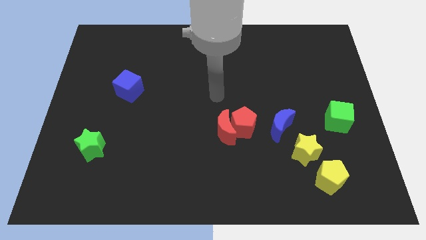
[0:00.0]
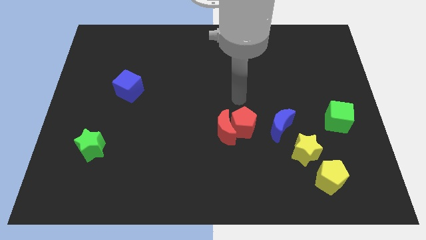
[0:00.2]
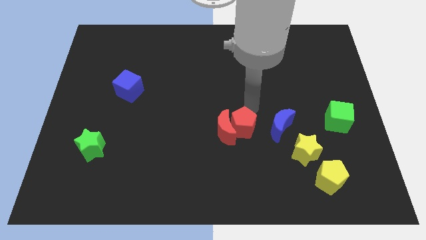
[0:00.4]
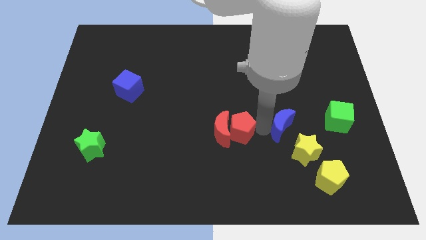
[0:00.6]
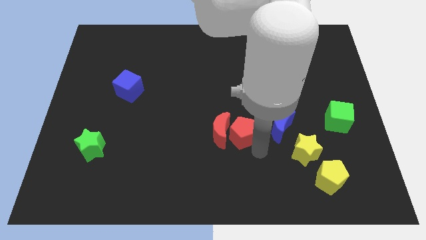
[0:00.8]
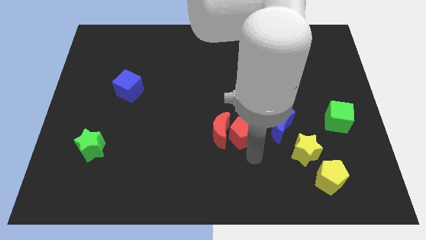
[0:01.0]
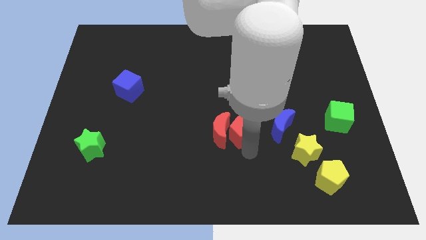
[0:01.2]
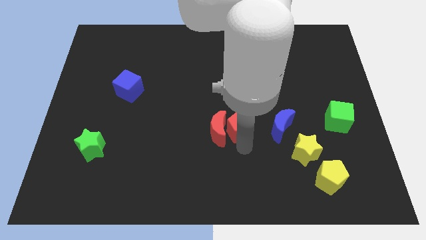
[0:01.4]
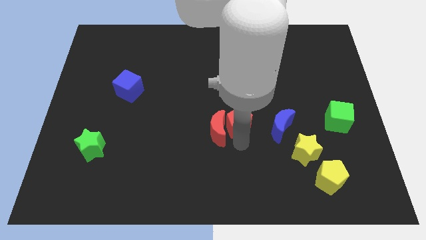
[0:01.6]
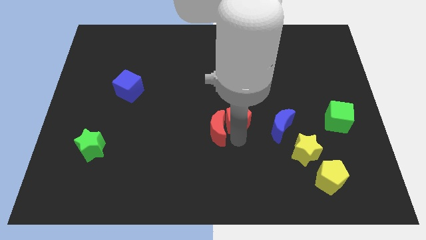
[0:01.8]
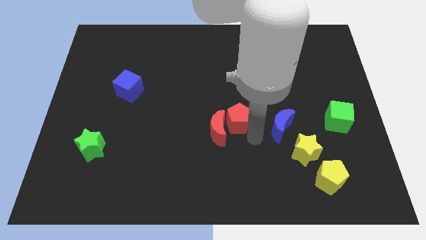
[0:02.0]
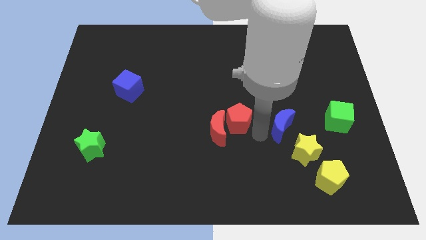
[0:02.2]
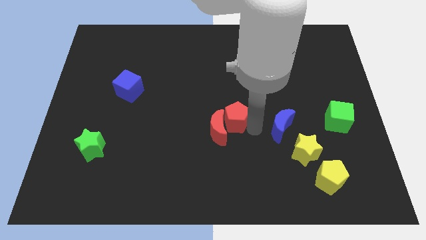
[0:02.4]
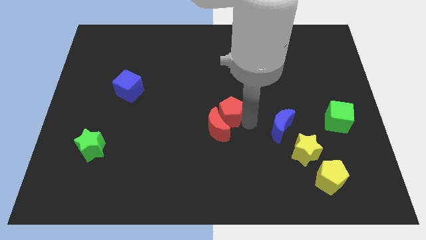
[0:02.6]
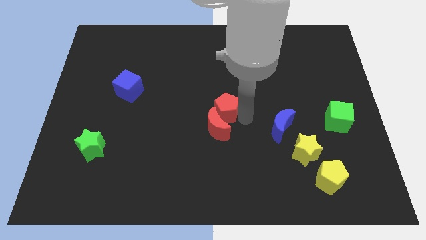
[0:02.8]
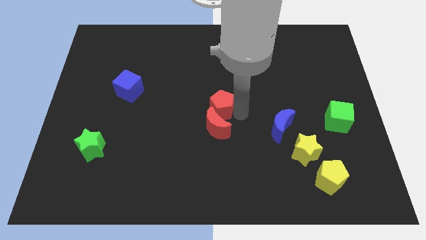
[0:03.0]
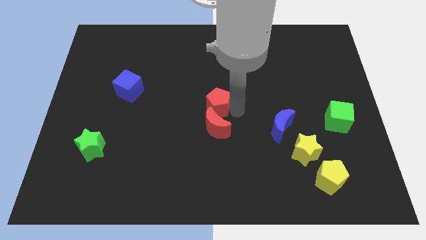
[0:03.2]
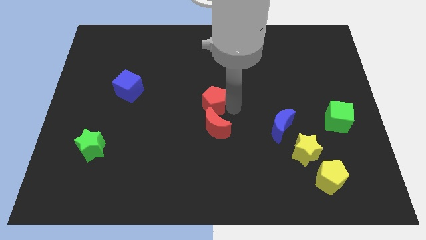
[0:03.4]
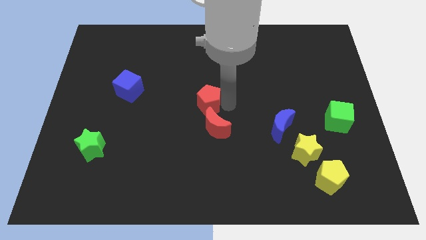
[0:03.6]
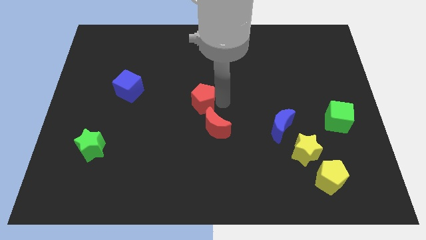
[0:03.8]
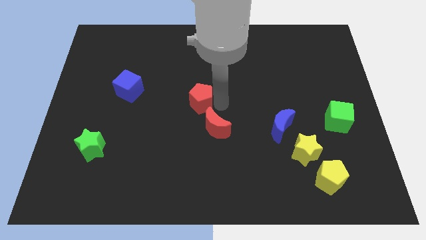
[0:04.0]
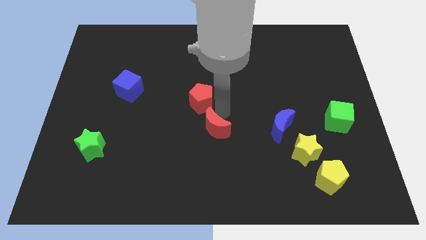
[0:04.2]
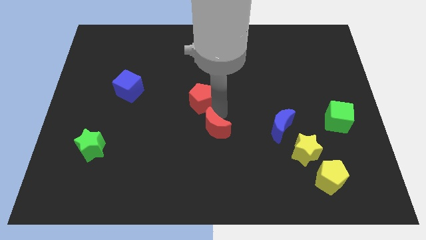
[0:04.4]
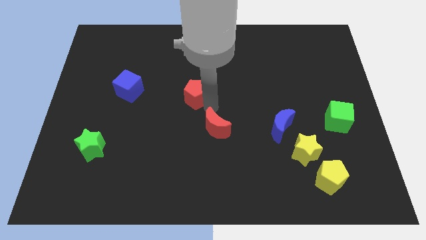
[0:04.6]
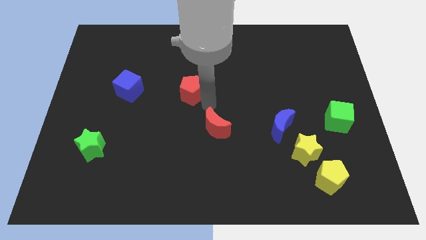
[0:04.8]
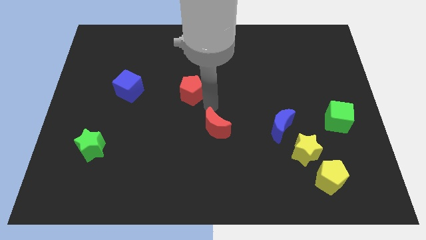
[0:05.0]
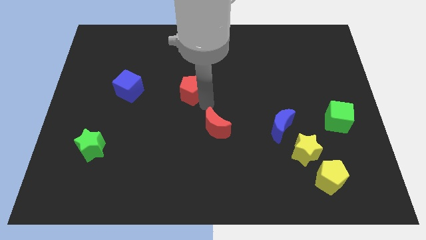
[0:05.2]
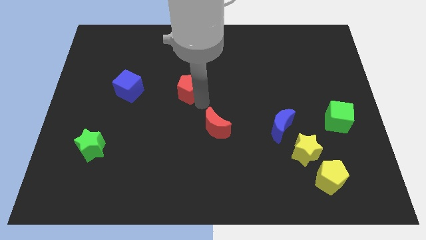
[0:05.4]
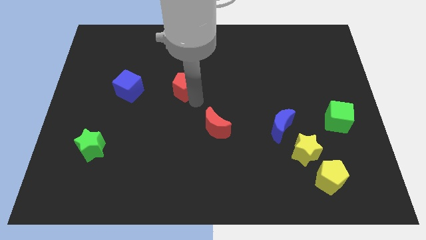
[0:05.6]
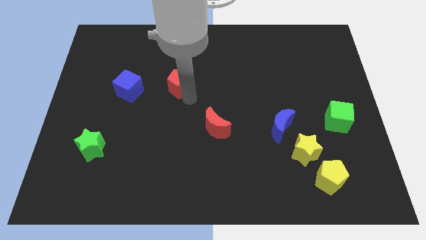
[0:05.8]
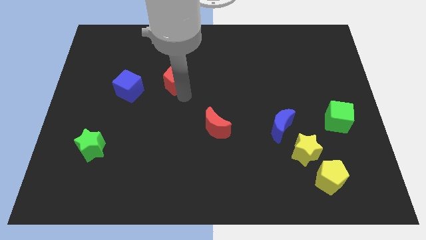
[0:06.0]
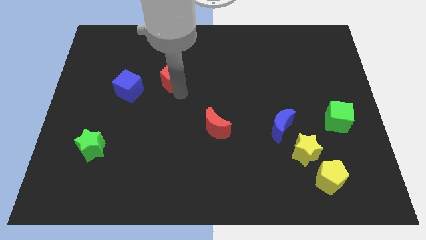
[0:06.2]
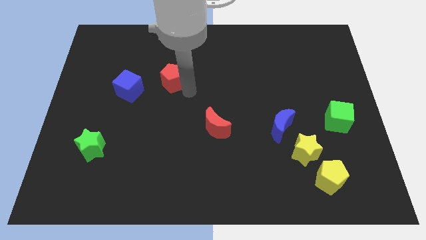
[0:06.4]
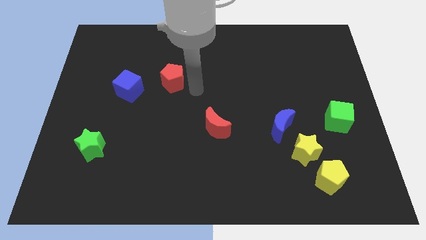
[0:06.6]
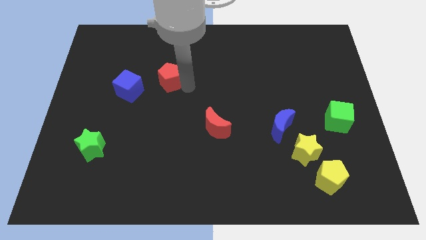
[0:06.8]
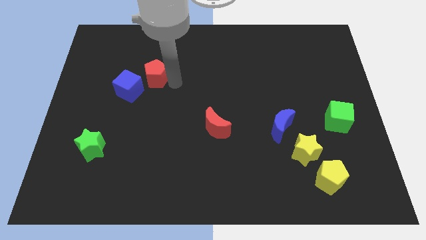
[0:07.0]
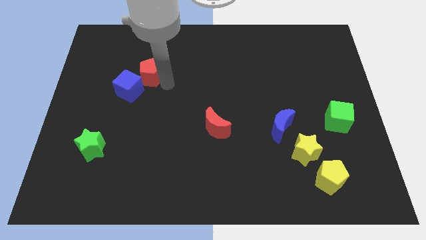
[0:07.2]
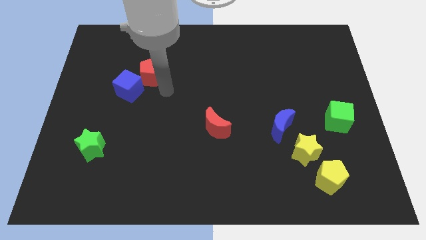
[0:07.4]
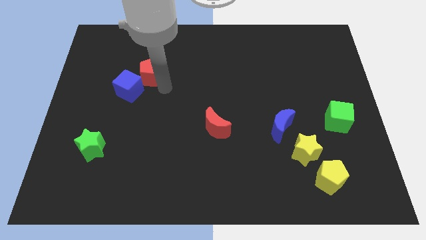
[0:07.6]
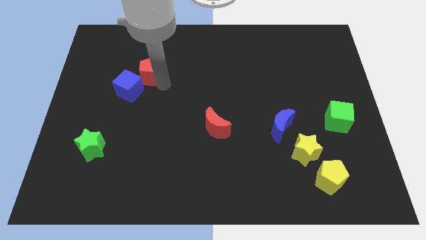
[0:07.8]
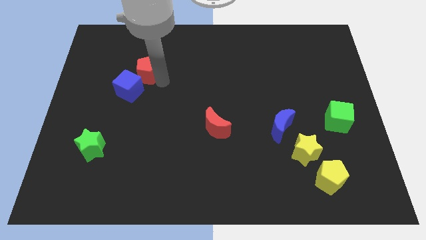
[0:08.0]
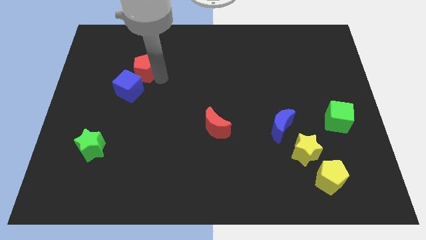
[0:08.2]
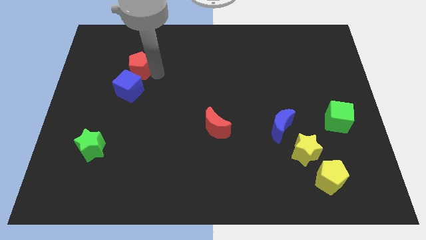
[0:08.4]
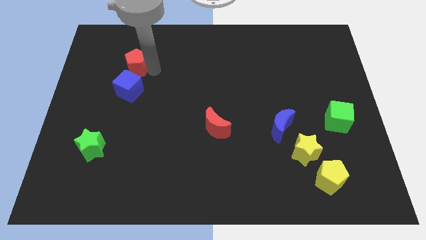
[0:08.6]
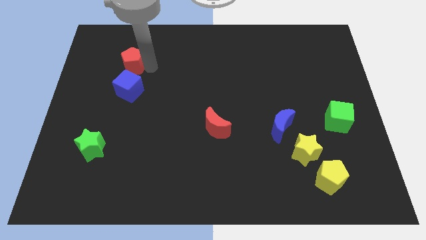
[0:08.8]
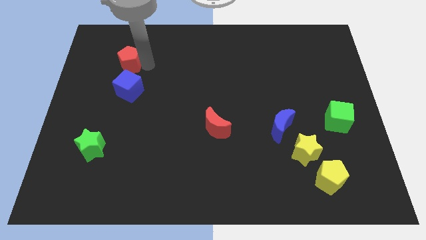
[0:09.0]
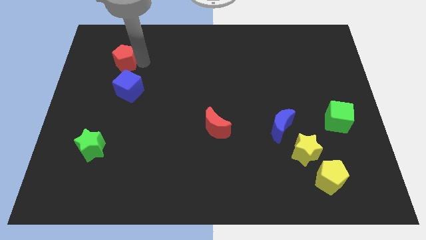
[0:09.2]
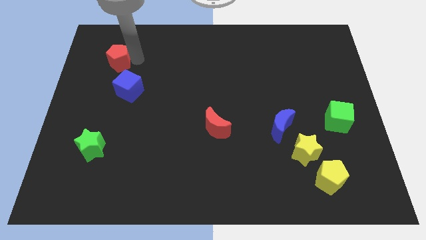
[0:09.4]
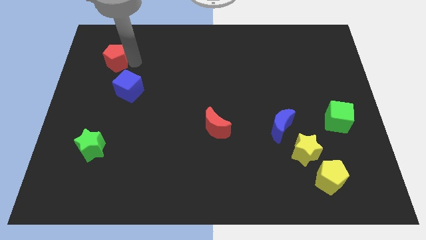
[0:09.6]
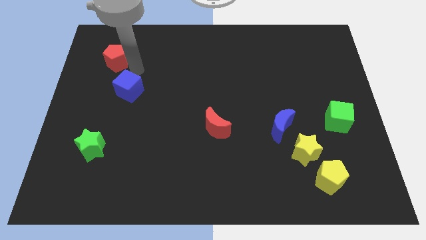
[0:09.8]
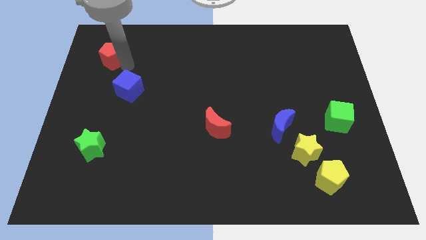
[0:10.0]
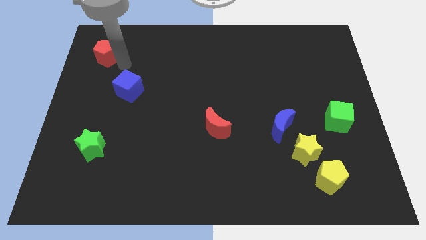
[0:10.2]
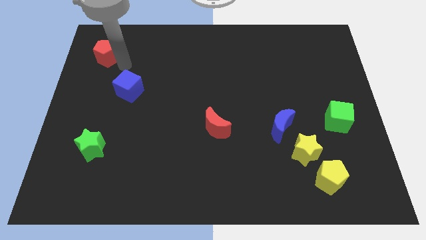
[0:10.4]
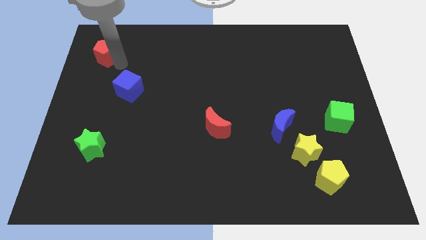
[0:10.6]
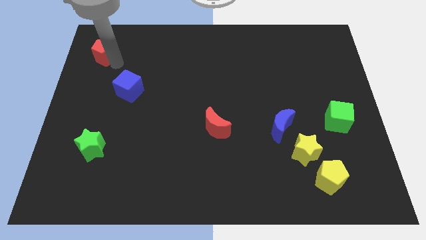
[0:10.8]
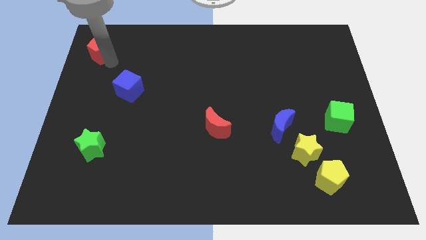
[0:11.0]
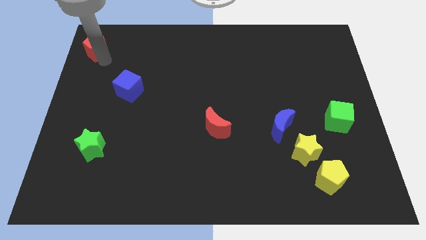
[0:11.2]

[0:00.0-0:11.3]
push the red pentagon to the top left corner
